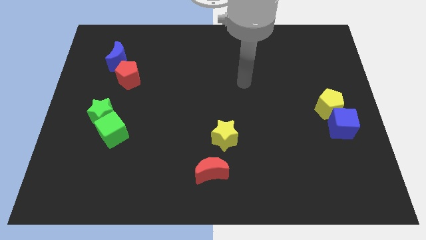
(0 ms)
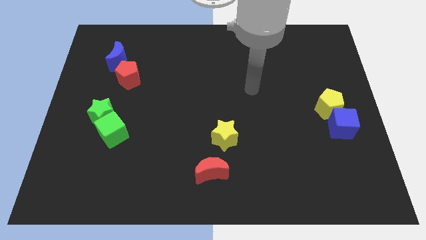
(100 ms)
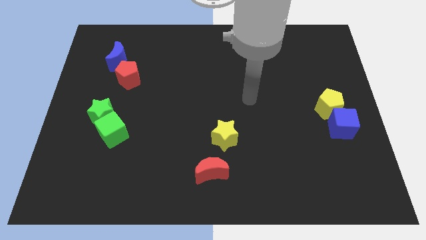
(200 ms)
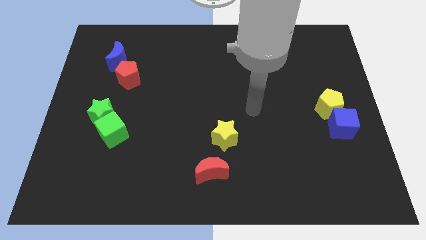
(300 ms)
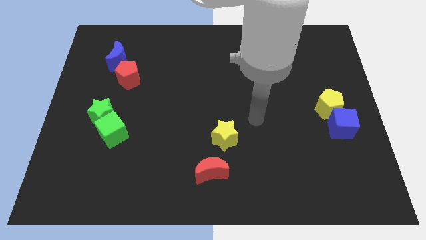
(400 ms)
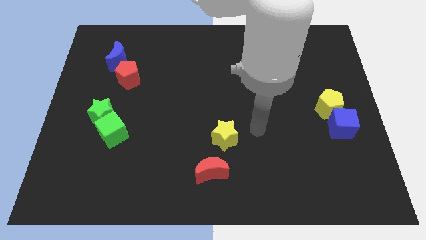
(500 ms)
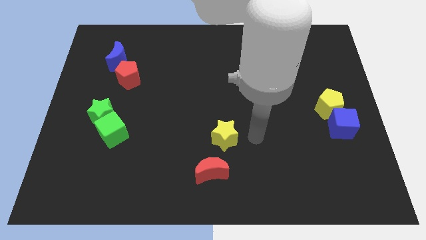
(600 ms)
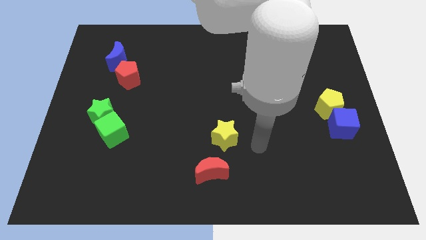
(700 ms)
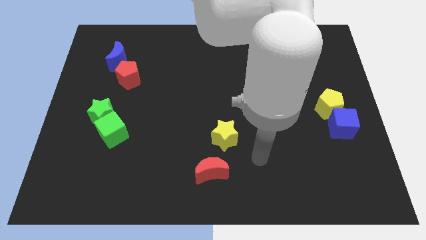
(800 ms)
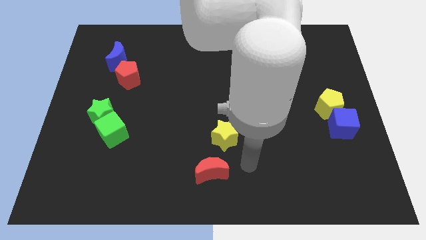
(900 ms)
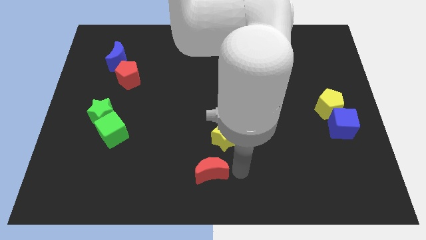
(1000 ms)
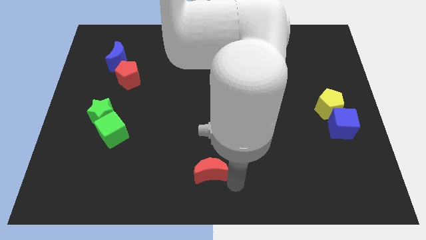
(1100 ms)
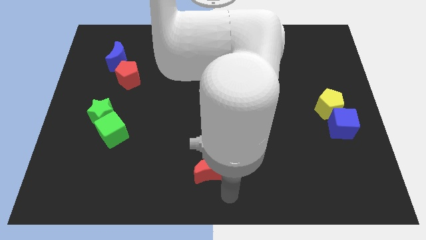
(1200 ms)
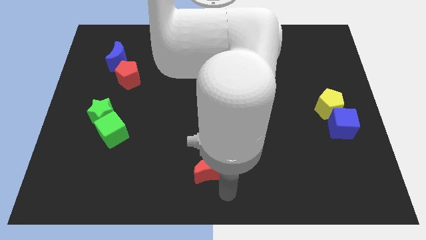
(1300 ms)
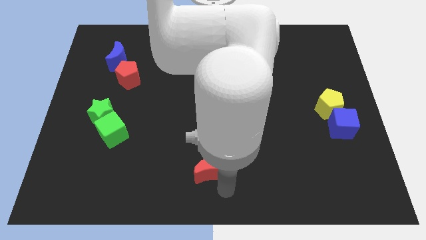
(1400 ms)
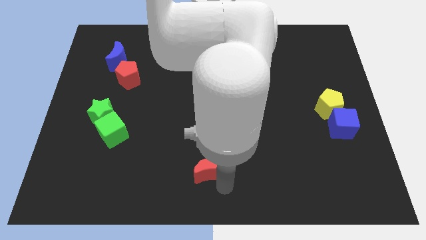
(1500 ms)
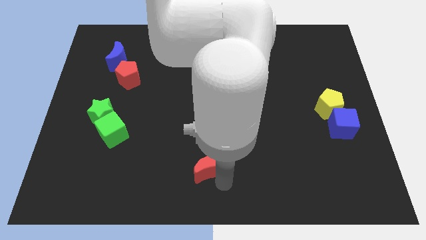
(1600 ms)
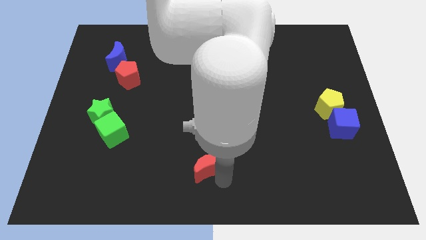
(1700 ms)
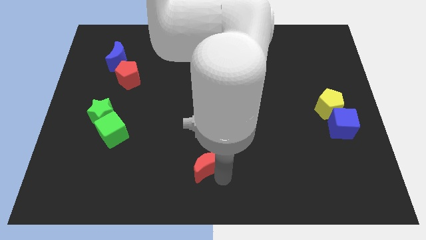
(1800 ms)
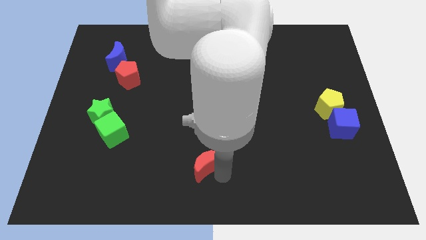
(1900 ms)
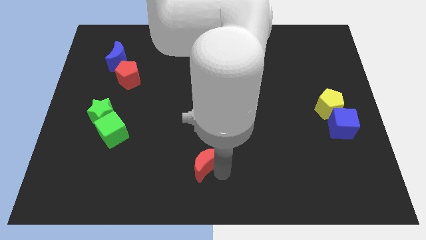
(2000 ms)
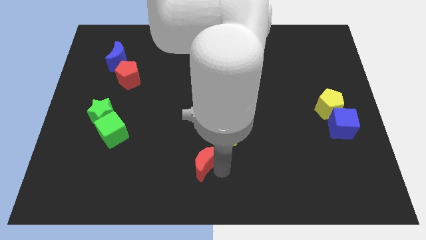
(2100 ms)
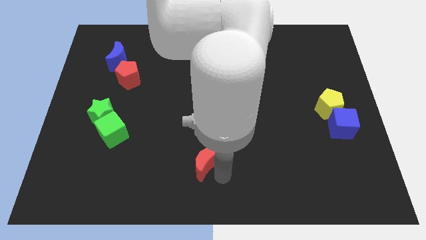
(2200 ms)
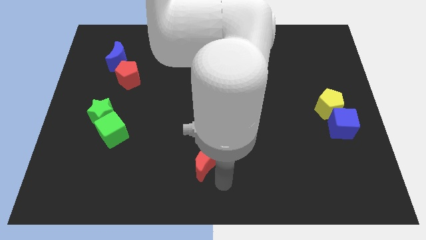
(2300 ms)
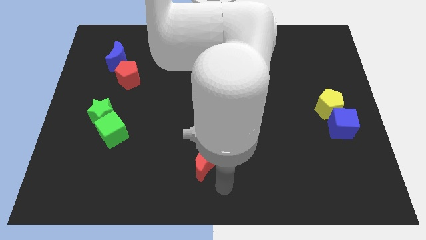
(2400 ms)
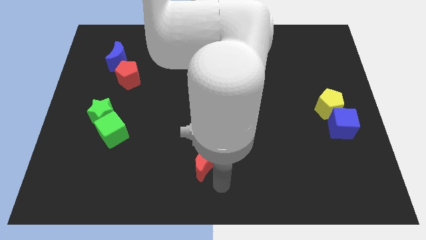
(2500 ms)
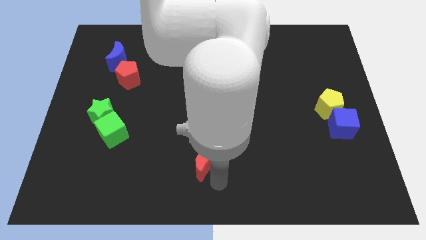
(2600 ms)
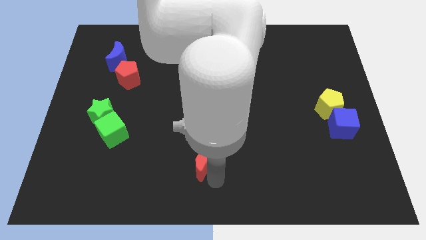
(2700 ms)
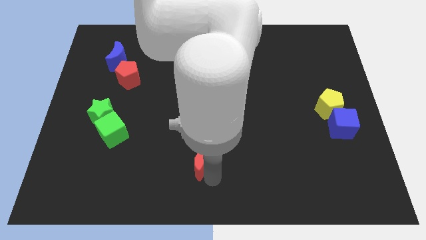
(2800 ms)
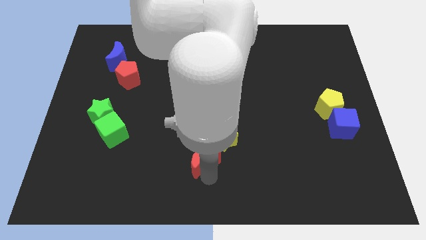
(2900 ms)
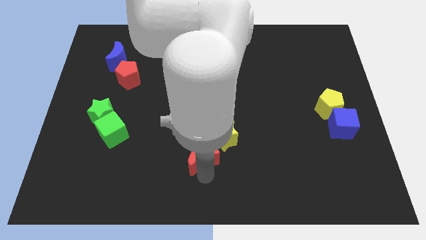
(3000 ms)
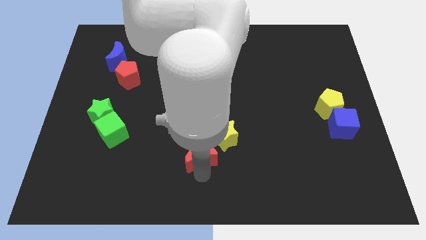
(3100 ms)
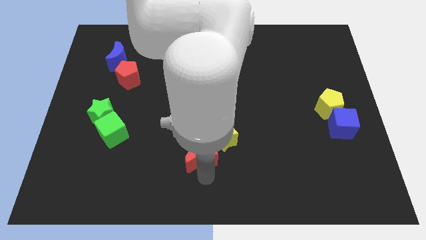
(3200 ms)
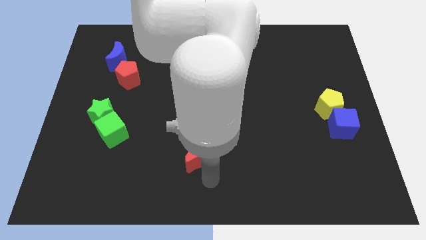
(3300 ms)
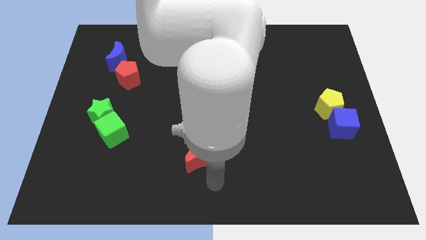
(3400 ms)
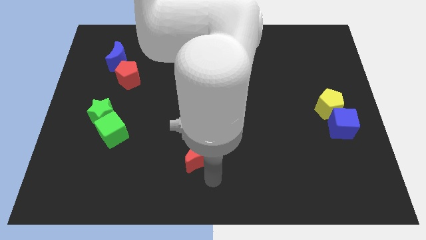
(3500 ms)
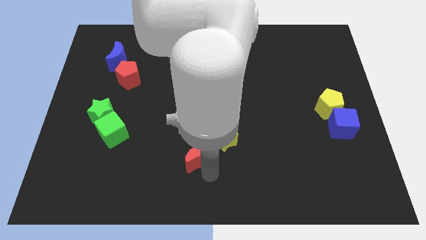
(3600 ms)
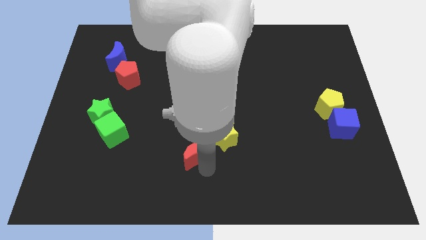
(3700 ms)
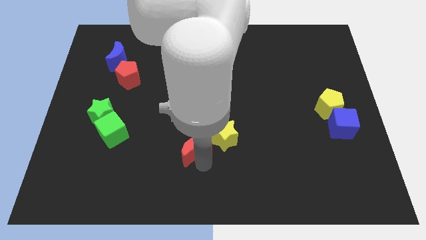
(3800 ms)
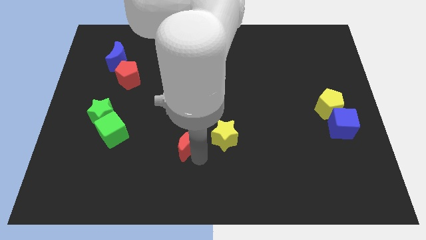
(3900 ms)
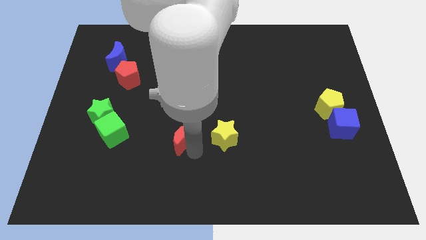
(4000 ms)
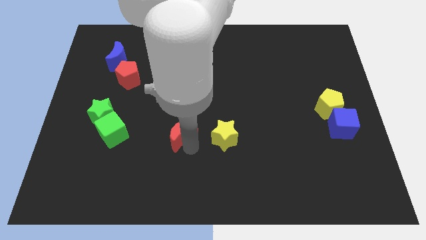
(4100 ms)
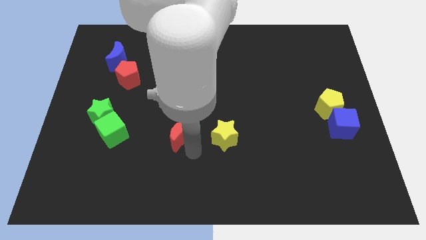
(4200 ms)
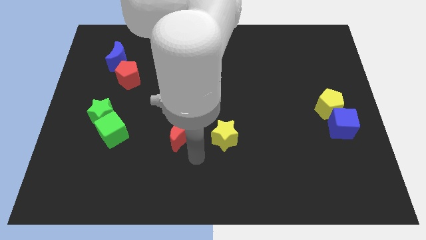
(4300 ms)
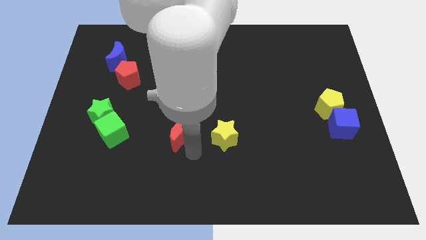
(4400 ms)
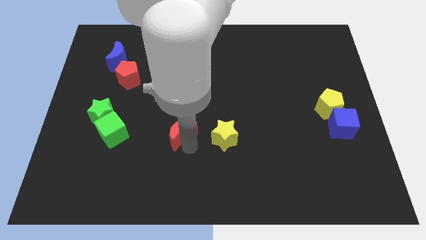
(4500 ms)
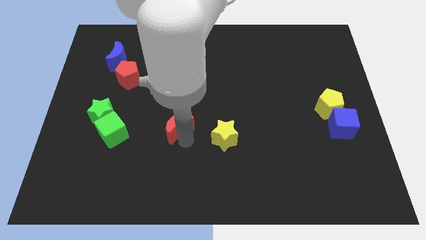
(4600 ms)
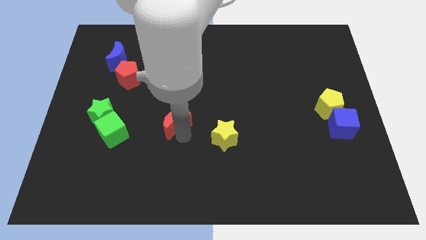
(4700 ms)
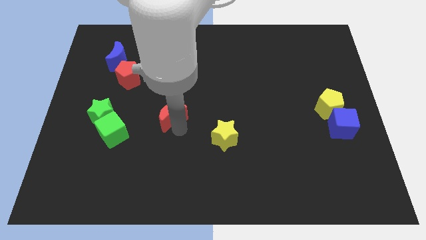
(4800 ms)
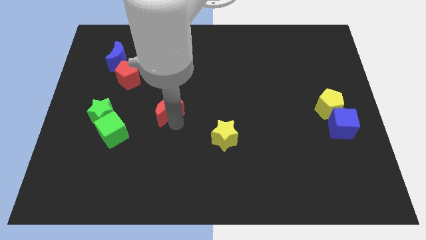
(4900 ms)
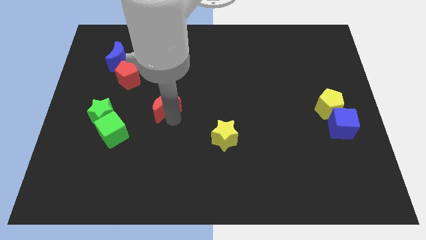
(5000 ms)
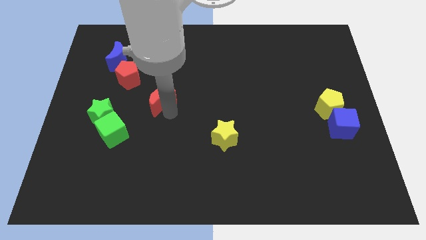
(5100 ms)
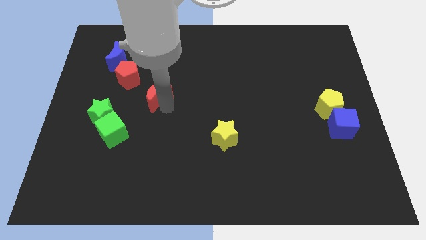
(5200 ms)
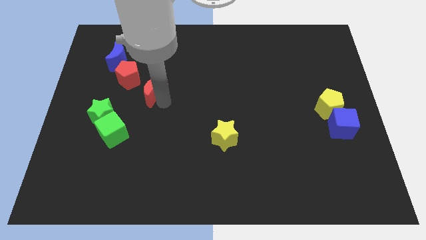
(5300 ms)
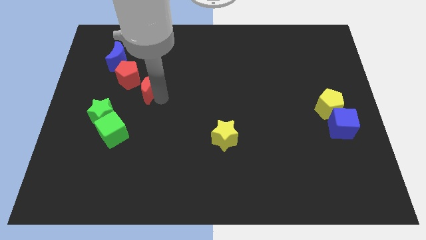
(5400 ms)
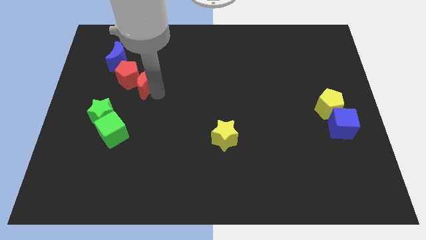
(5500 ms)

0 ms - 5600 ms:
push the red moon next to the red pentagon

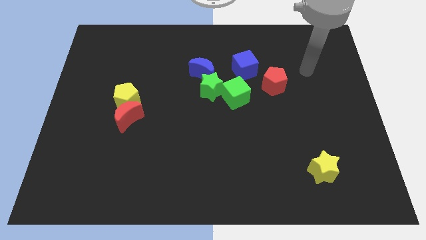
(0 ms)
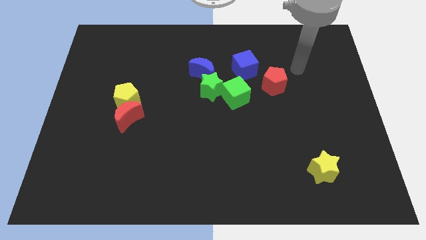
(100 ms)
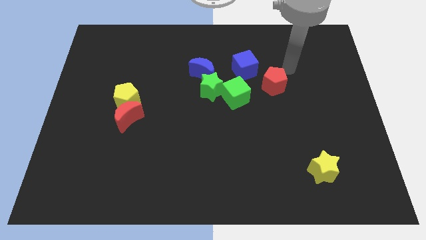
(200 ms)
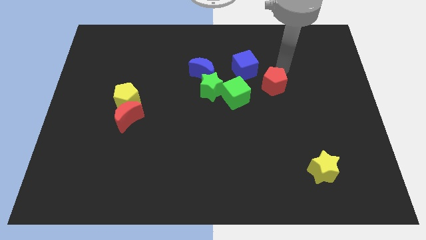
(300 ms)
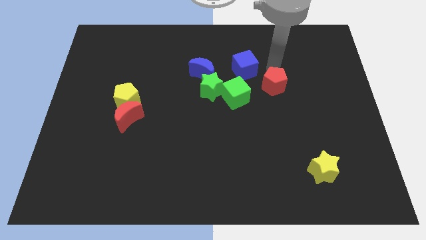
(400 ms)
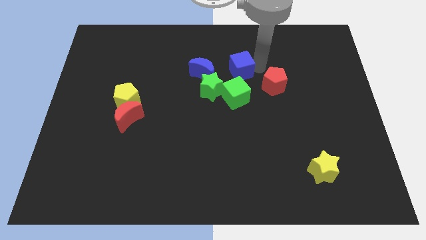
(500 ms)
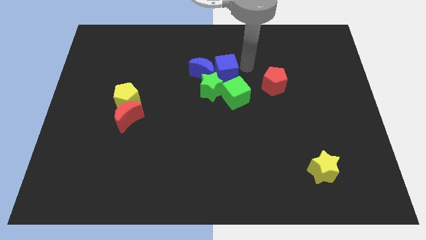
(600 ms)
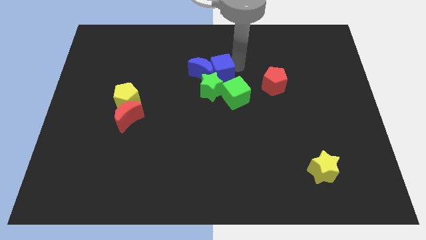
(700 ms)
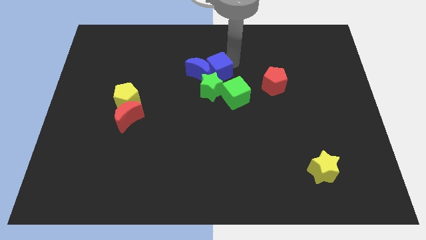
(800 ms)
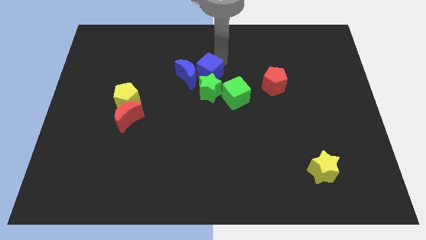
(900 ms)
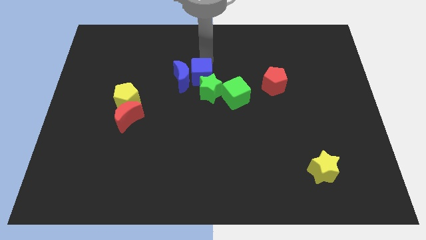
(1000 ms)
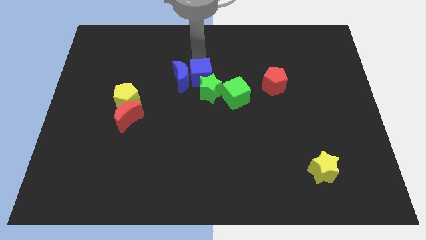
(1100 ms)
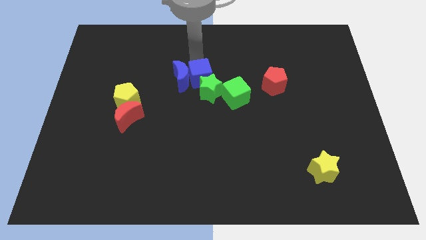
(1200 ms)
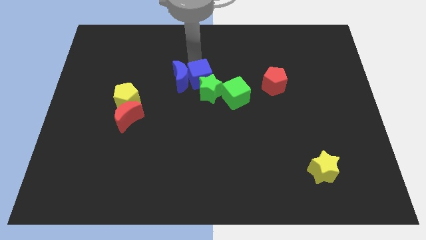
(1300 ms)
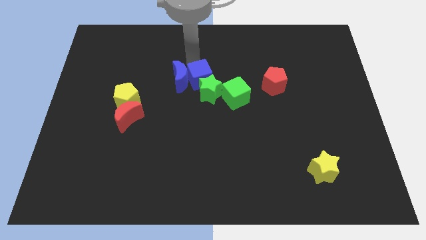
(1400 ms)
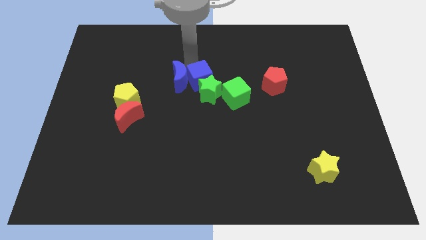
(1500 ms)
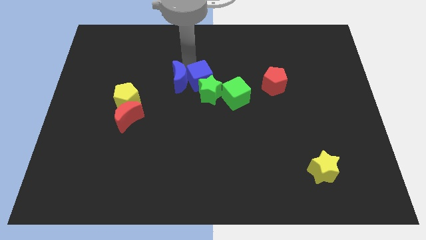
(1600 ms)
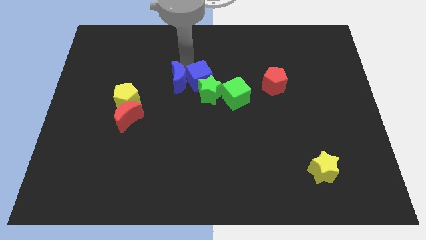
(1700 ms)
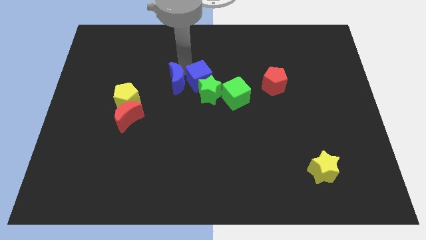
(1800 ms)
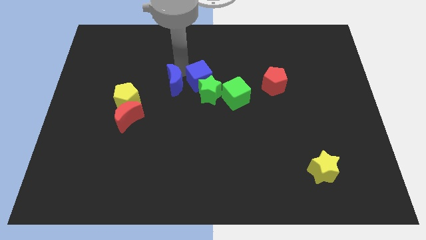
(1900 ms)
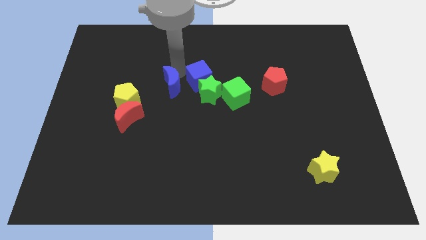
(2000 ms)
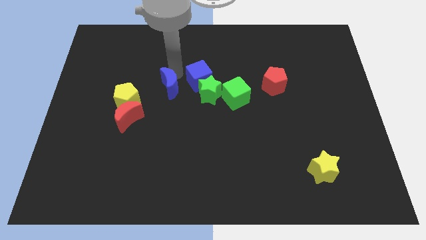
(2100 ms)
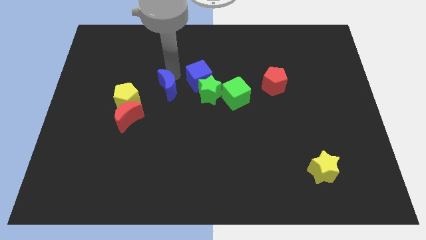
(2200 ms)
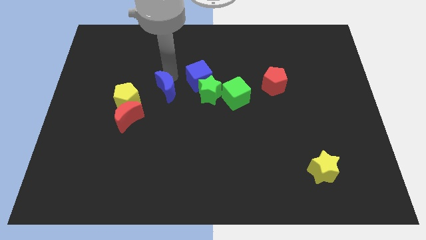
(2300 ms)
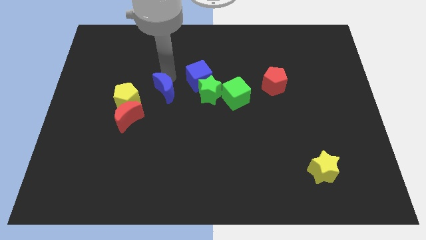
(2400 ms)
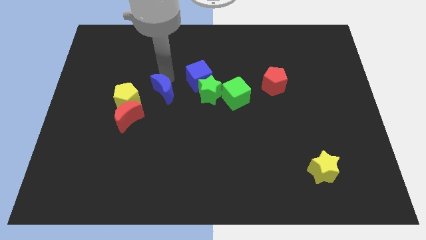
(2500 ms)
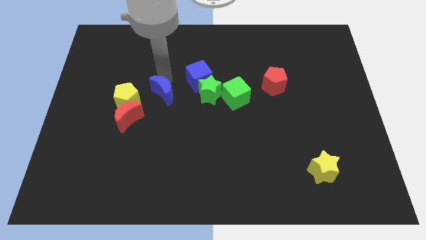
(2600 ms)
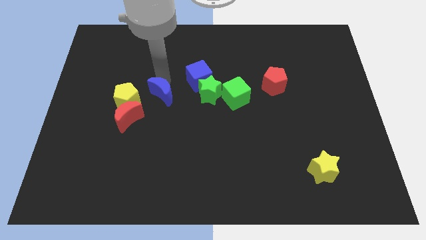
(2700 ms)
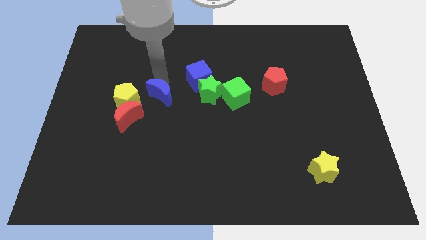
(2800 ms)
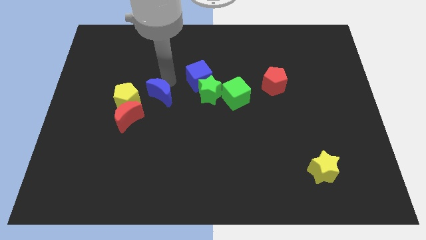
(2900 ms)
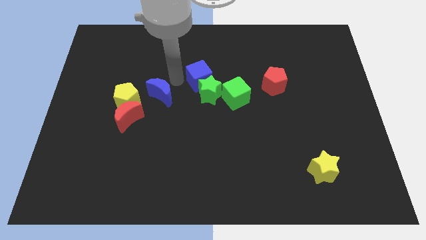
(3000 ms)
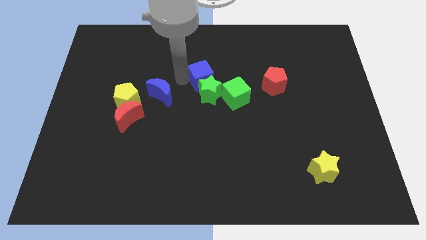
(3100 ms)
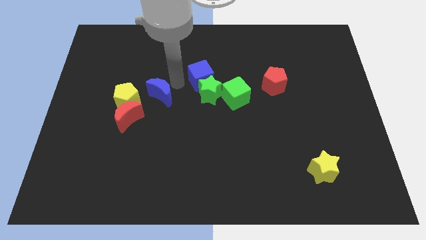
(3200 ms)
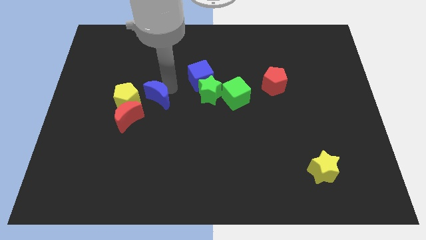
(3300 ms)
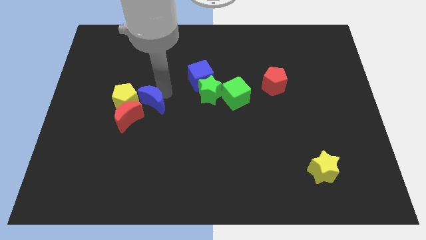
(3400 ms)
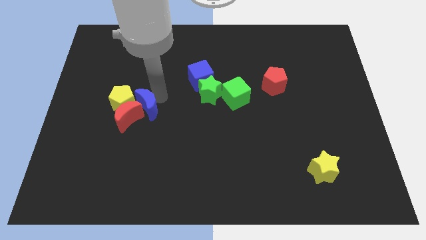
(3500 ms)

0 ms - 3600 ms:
slide the blue moon towards the red moon
